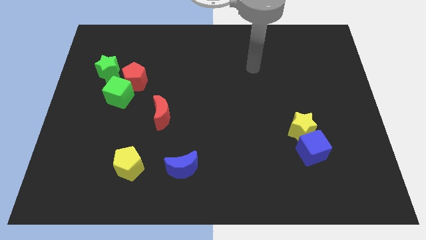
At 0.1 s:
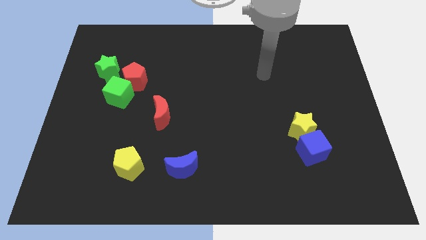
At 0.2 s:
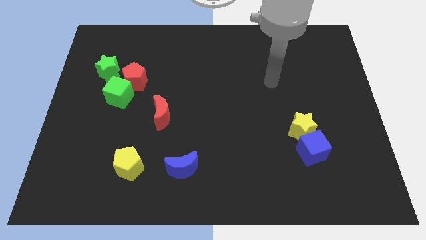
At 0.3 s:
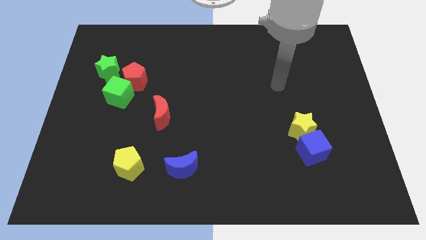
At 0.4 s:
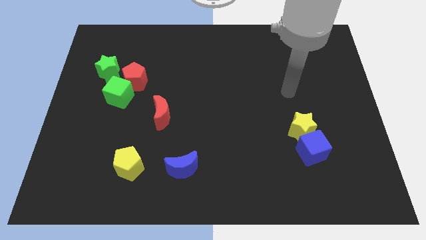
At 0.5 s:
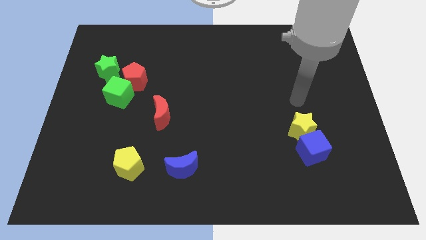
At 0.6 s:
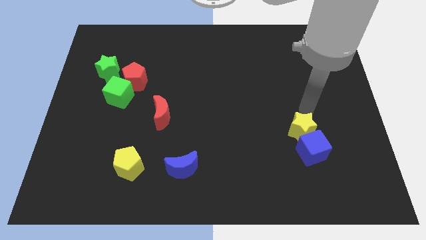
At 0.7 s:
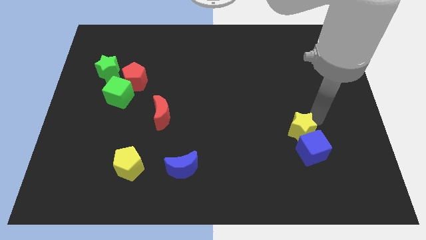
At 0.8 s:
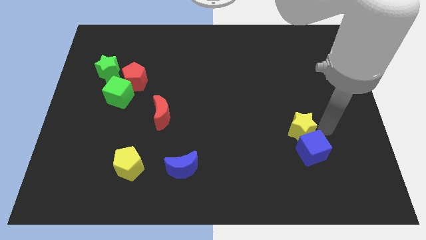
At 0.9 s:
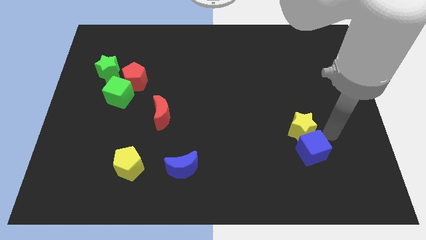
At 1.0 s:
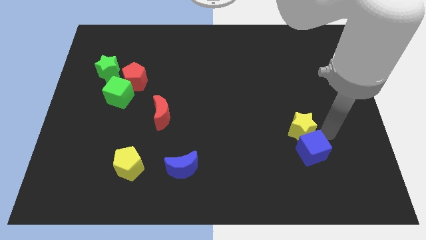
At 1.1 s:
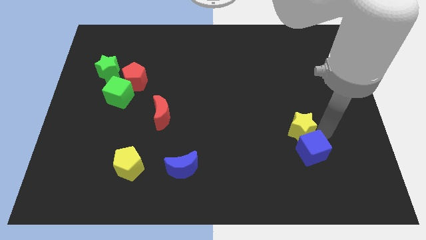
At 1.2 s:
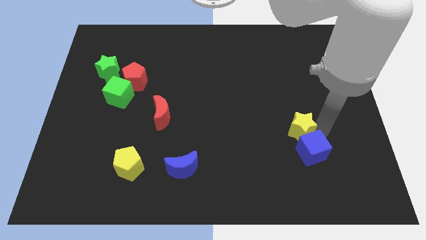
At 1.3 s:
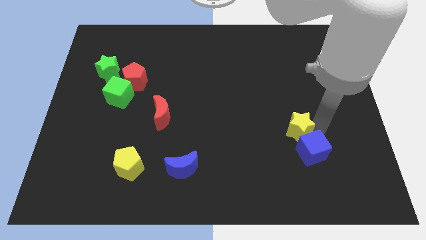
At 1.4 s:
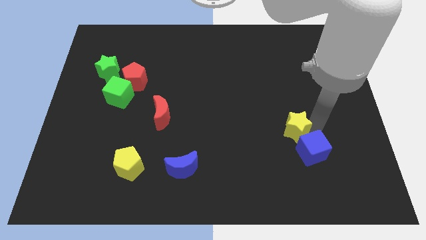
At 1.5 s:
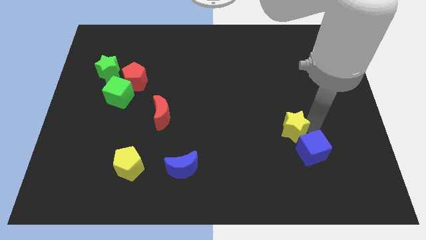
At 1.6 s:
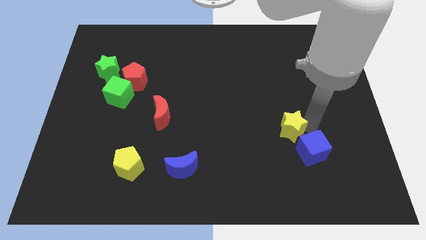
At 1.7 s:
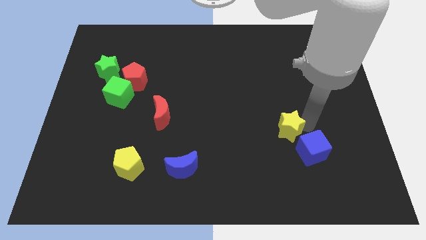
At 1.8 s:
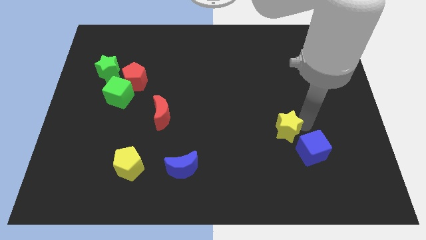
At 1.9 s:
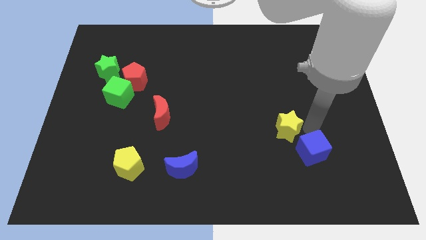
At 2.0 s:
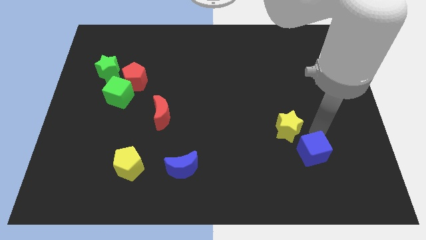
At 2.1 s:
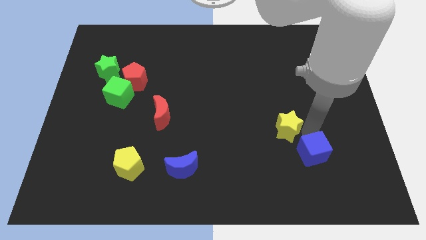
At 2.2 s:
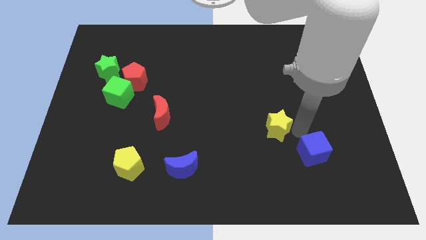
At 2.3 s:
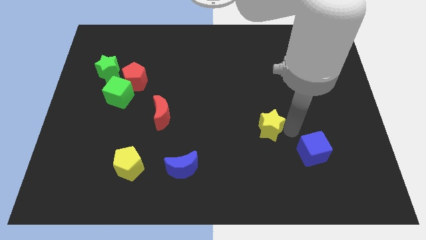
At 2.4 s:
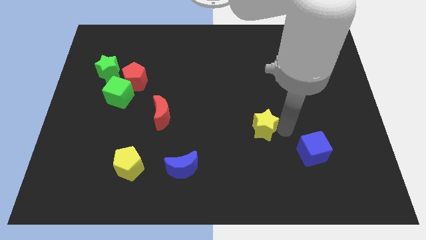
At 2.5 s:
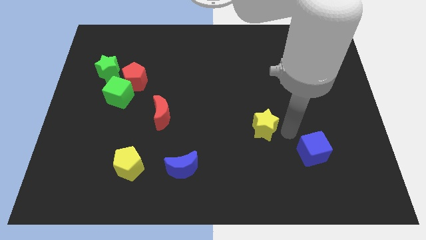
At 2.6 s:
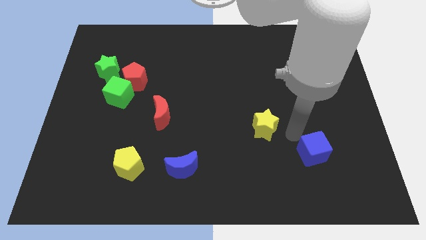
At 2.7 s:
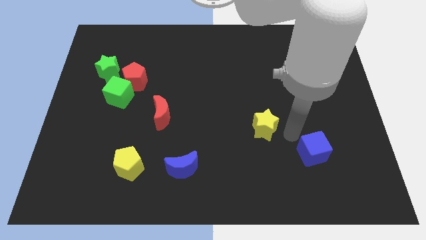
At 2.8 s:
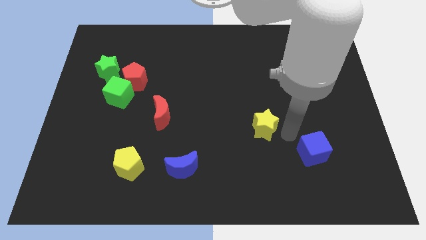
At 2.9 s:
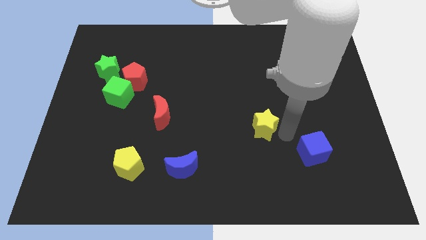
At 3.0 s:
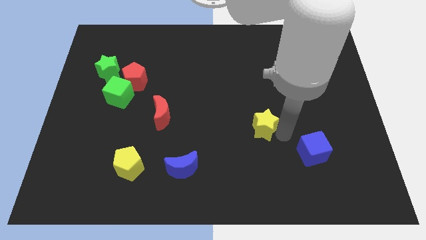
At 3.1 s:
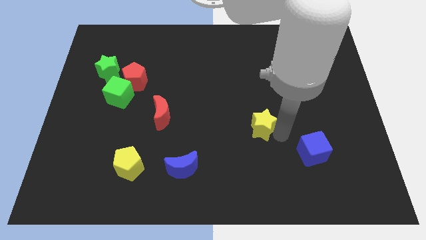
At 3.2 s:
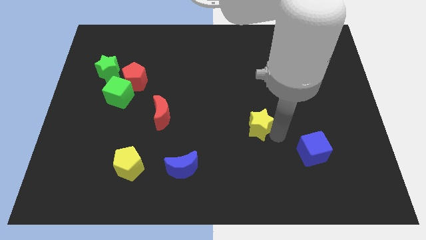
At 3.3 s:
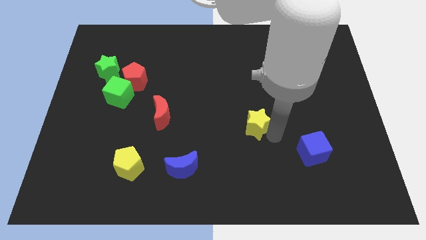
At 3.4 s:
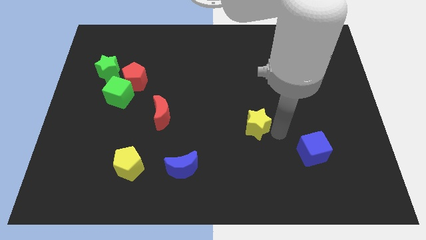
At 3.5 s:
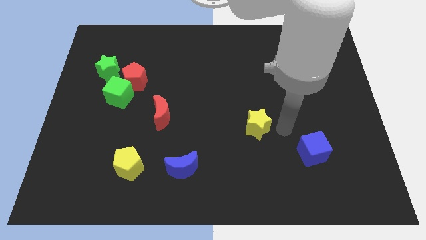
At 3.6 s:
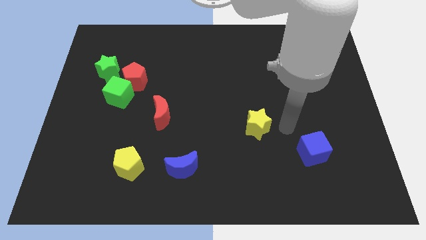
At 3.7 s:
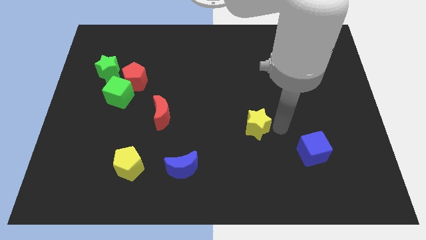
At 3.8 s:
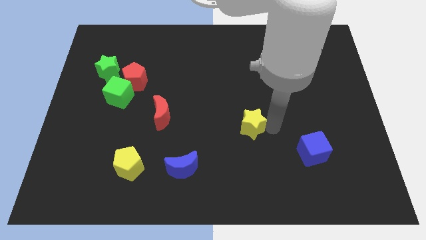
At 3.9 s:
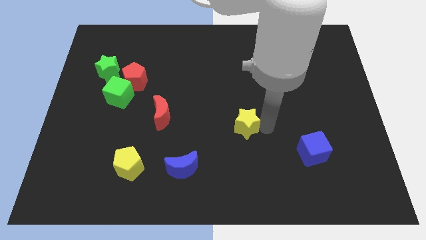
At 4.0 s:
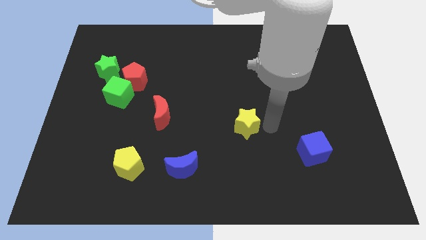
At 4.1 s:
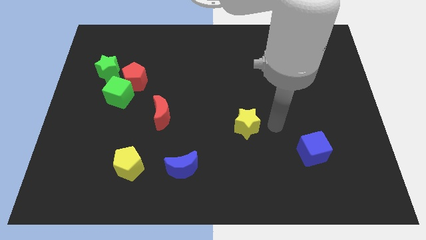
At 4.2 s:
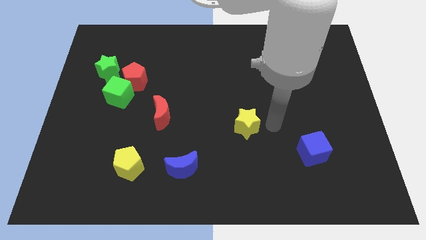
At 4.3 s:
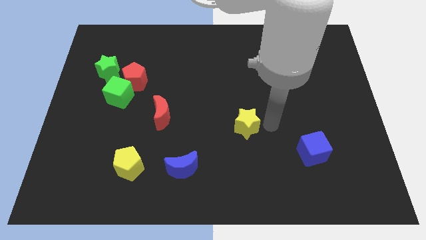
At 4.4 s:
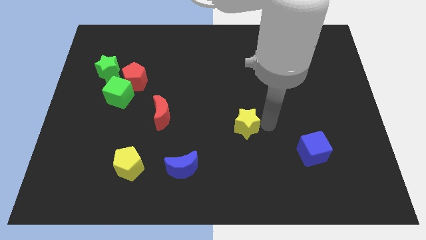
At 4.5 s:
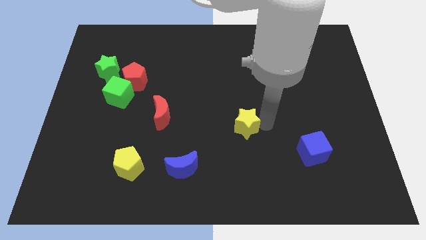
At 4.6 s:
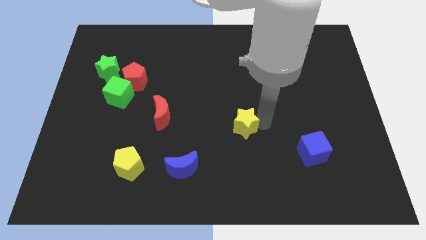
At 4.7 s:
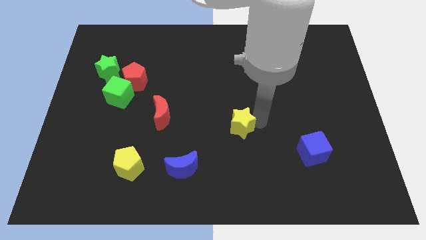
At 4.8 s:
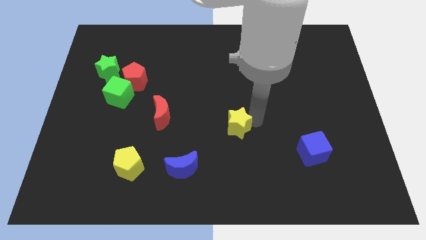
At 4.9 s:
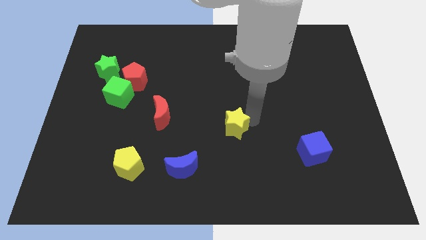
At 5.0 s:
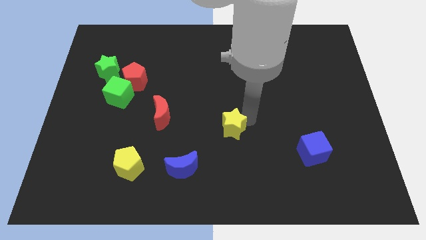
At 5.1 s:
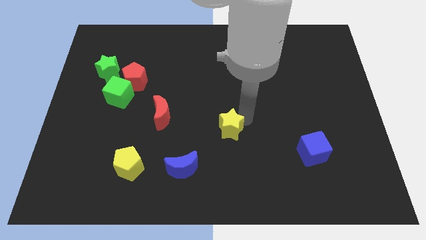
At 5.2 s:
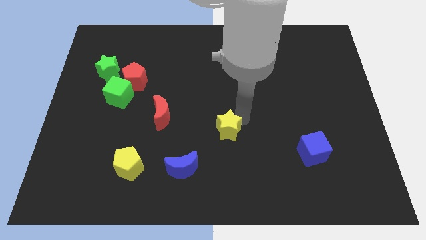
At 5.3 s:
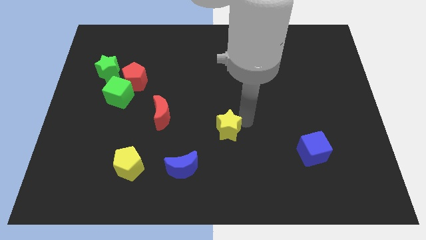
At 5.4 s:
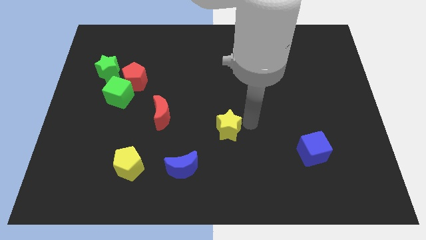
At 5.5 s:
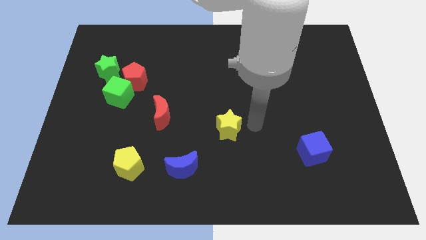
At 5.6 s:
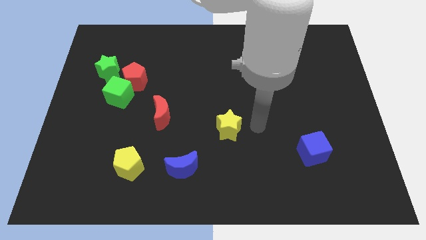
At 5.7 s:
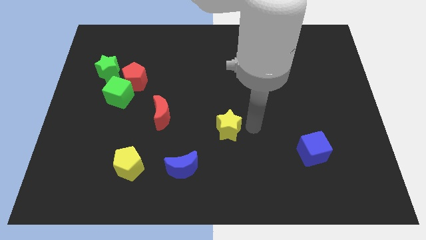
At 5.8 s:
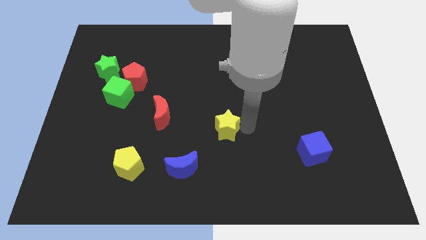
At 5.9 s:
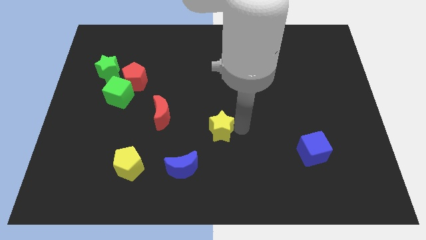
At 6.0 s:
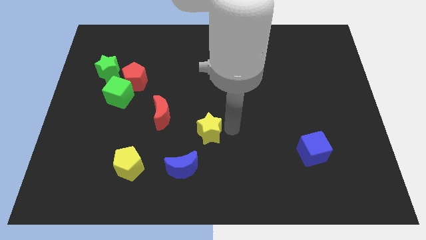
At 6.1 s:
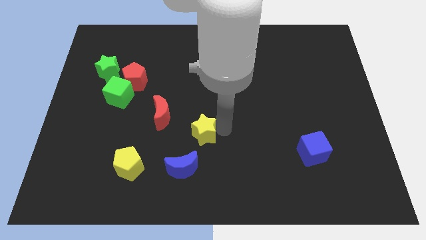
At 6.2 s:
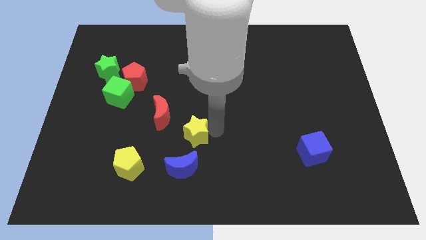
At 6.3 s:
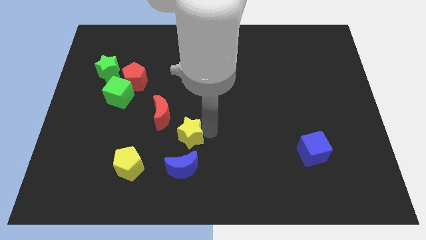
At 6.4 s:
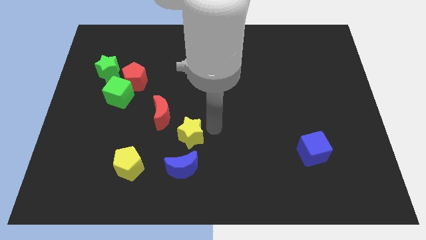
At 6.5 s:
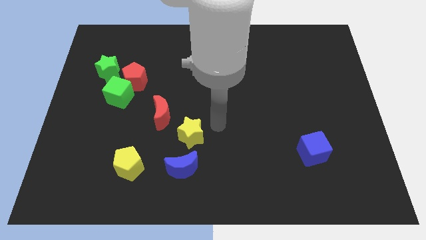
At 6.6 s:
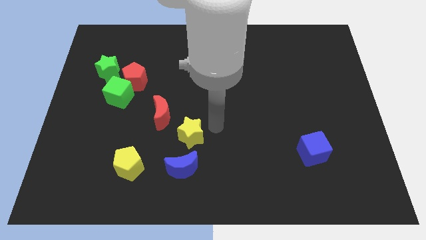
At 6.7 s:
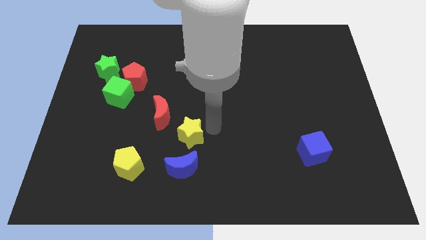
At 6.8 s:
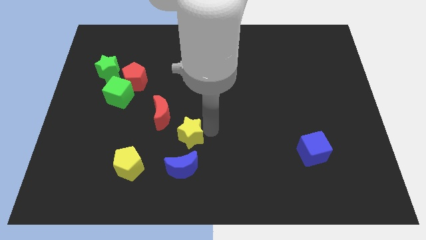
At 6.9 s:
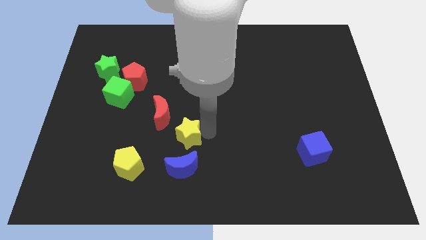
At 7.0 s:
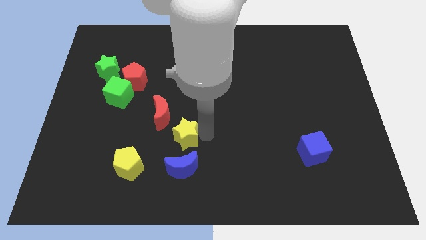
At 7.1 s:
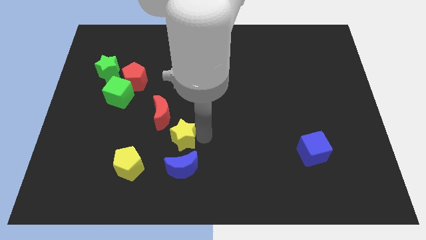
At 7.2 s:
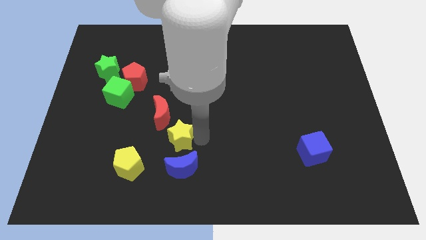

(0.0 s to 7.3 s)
move the yellow star to the top left side of the blue moon
